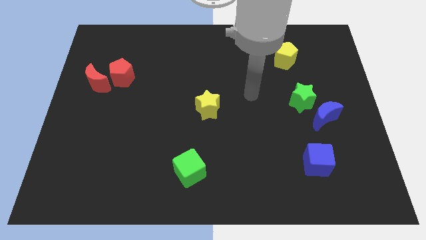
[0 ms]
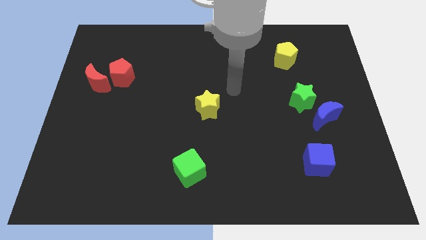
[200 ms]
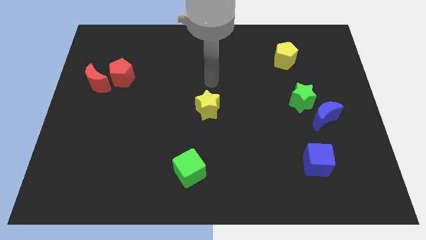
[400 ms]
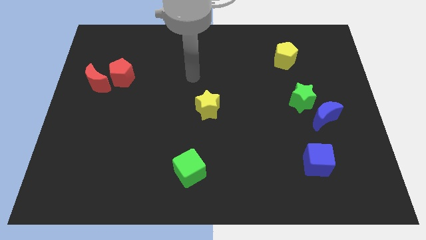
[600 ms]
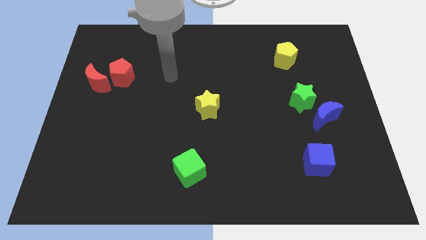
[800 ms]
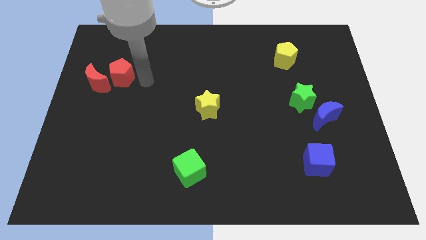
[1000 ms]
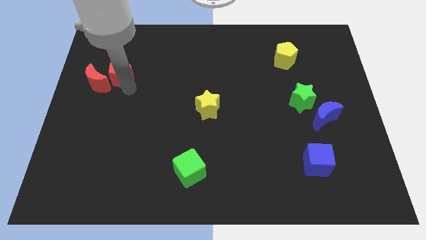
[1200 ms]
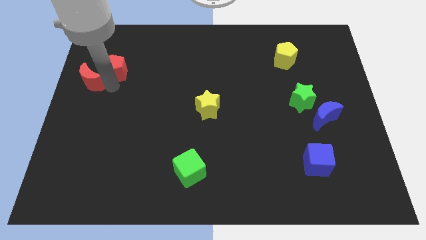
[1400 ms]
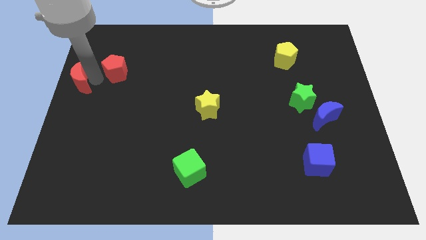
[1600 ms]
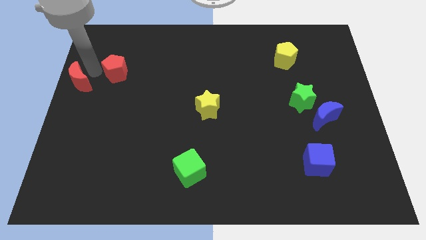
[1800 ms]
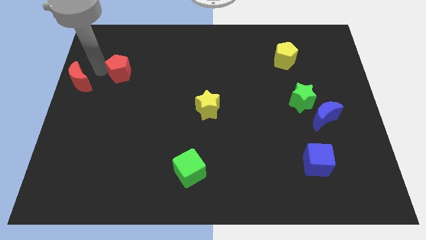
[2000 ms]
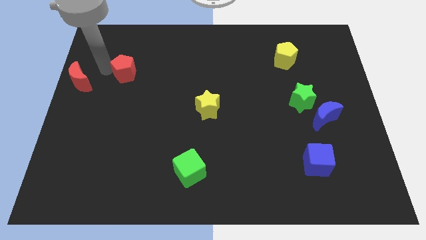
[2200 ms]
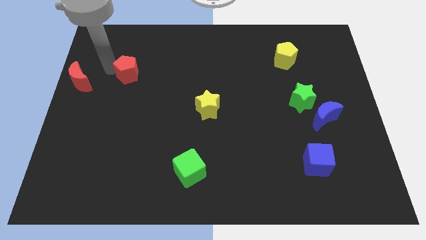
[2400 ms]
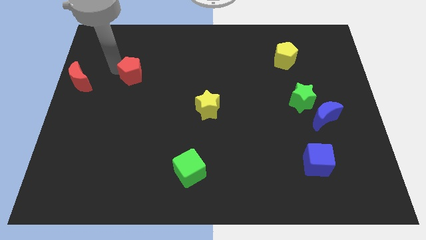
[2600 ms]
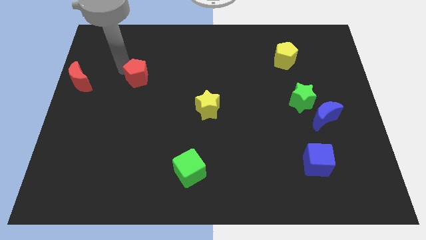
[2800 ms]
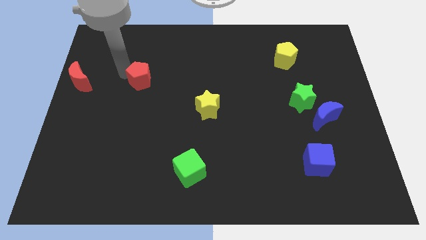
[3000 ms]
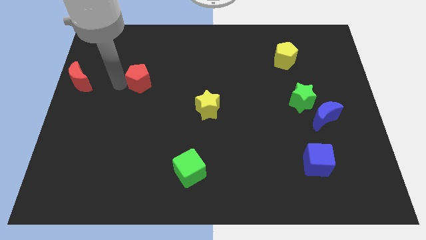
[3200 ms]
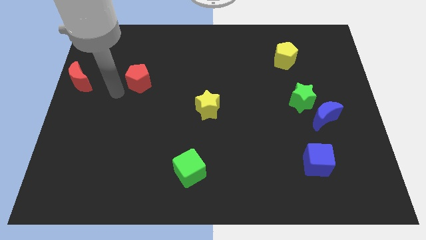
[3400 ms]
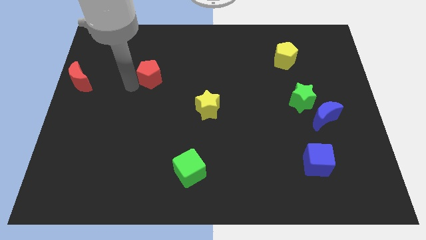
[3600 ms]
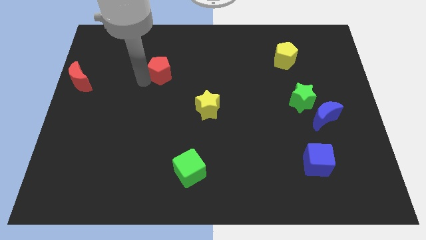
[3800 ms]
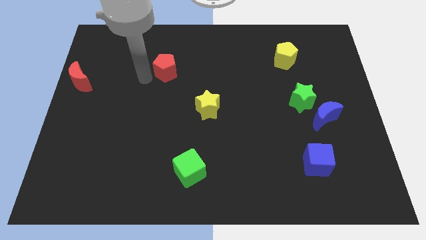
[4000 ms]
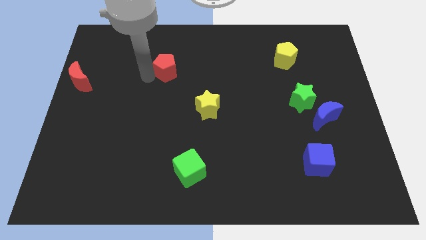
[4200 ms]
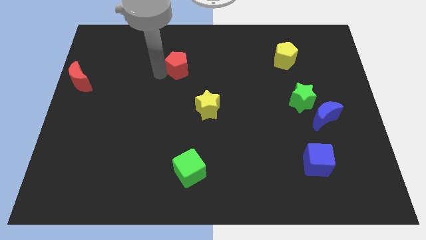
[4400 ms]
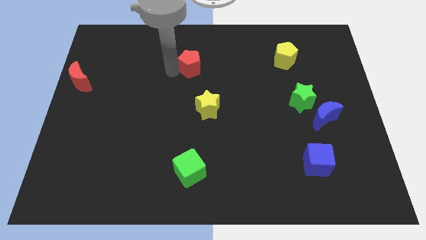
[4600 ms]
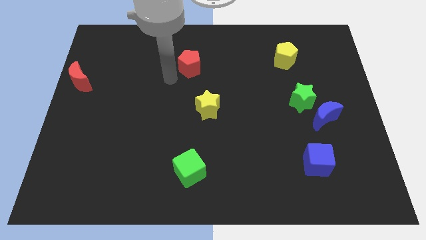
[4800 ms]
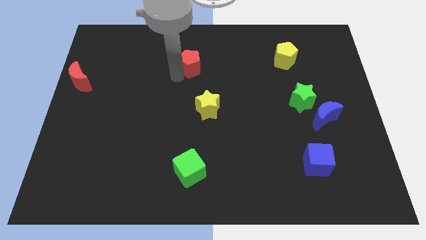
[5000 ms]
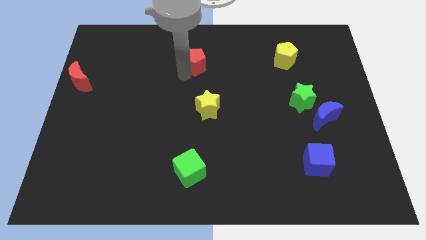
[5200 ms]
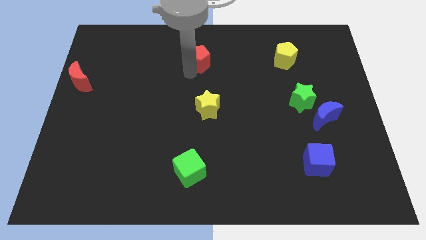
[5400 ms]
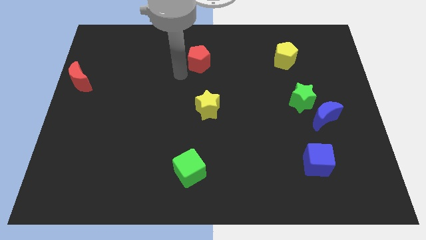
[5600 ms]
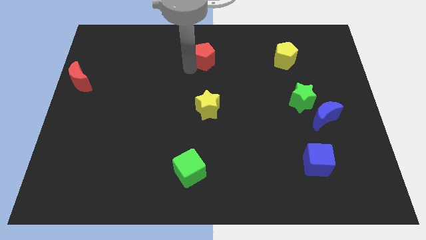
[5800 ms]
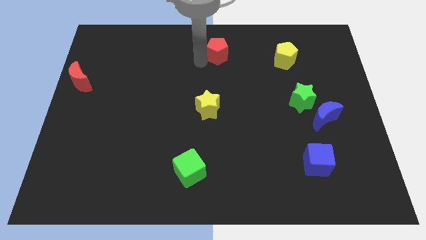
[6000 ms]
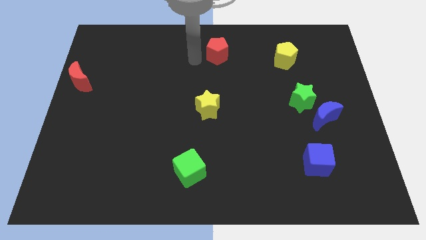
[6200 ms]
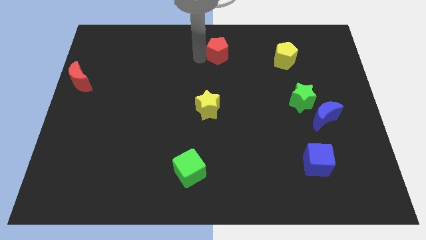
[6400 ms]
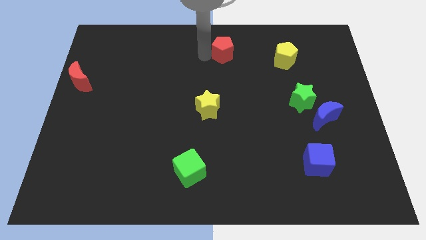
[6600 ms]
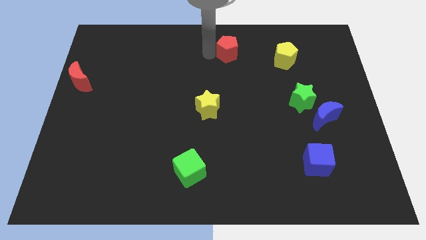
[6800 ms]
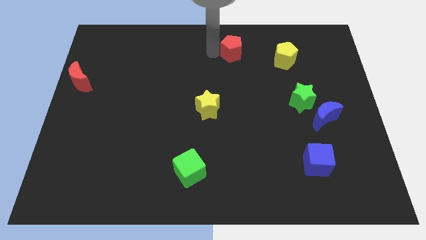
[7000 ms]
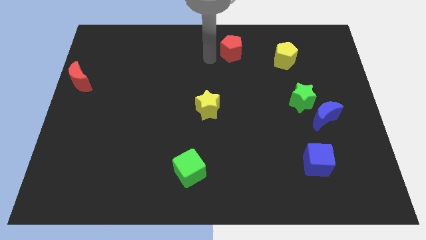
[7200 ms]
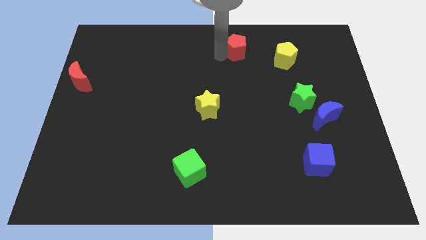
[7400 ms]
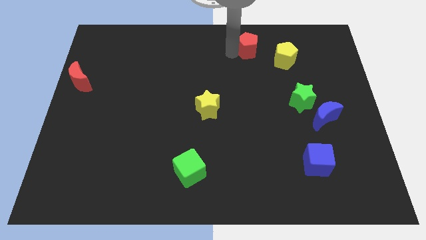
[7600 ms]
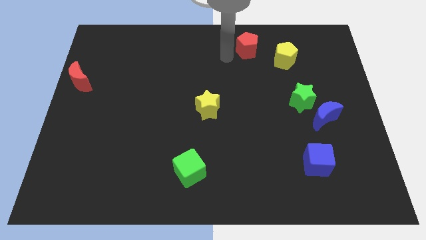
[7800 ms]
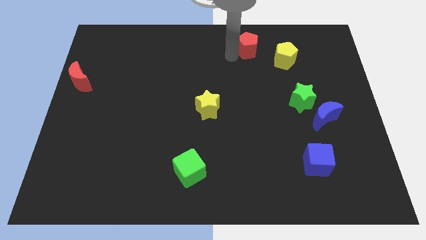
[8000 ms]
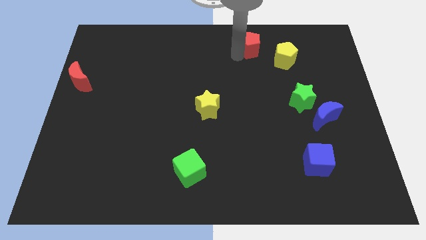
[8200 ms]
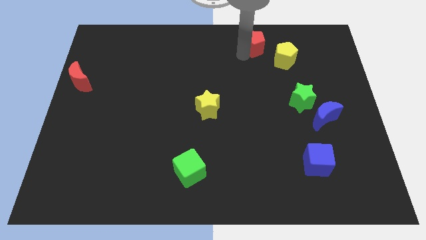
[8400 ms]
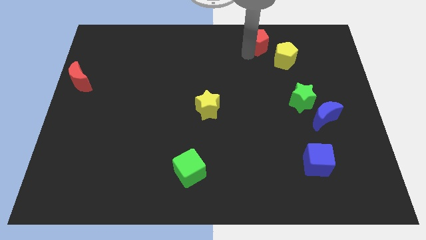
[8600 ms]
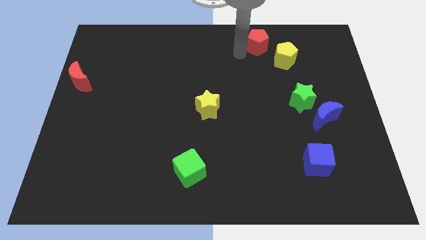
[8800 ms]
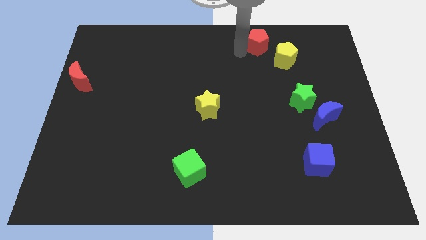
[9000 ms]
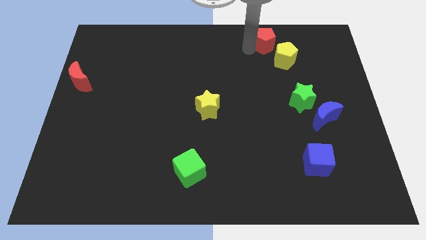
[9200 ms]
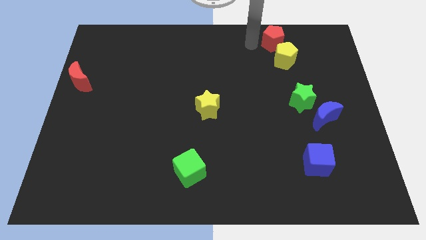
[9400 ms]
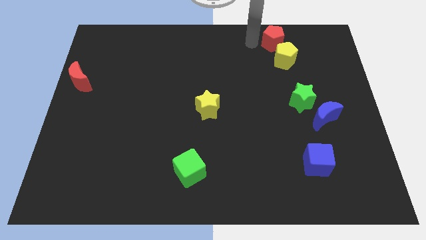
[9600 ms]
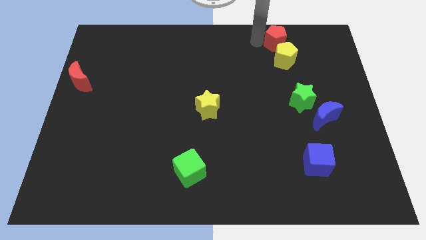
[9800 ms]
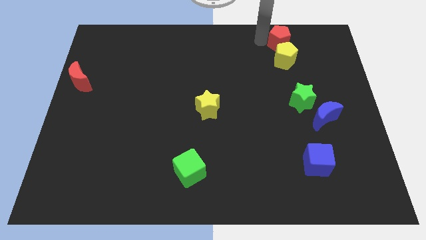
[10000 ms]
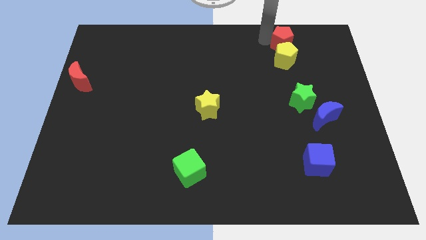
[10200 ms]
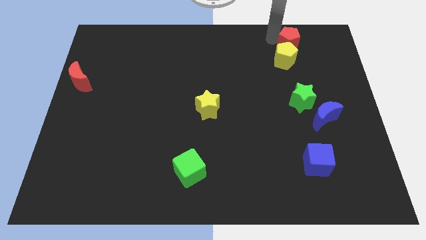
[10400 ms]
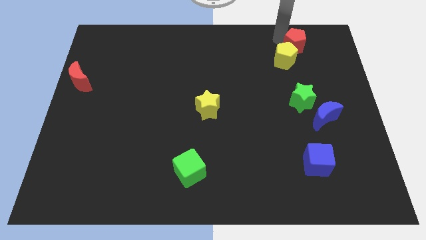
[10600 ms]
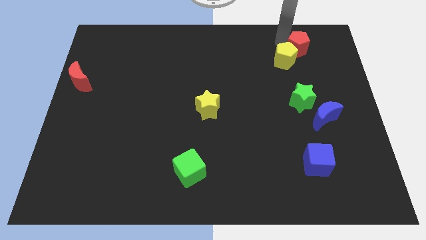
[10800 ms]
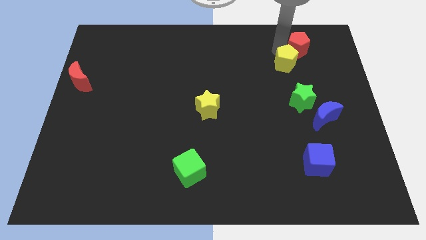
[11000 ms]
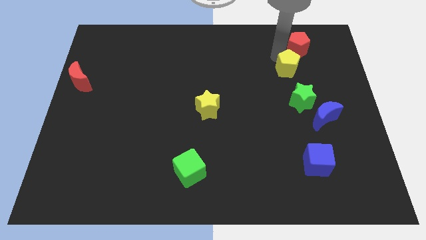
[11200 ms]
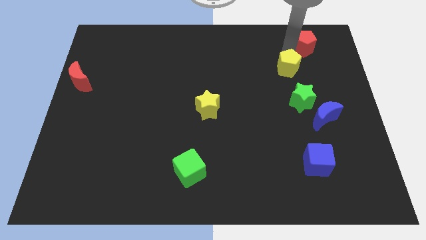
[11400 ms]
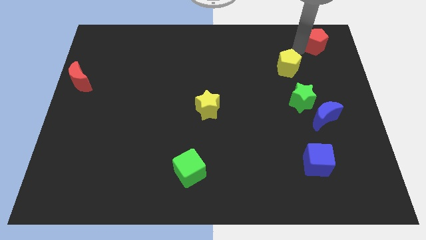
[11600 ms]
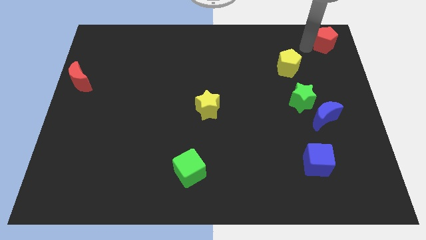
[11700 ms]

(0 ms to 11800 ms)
move the red pentagon to the top right of the board
